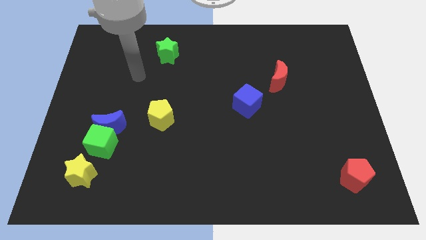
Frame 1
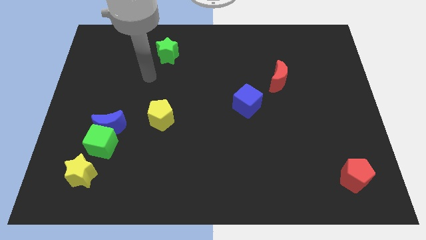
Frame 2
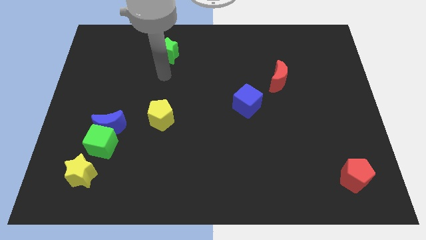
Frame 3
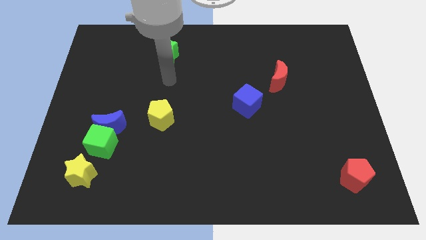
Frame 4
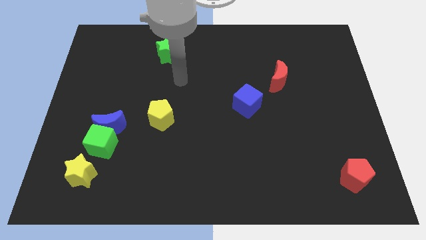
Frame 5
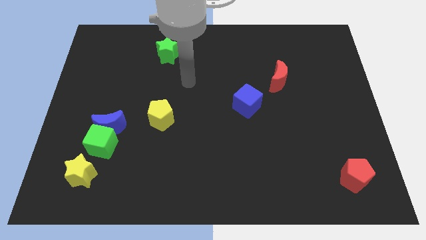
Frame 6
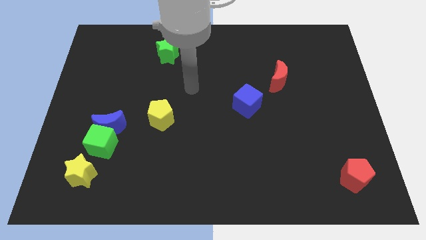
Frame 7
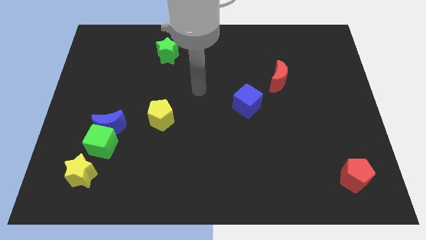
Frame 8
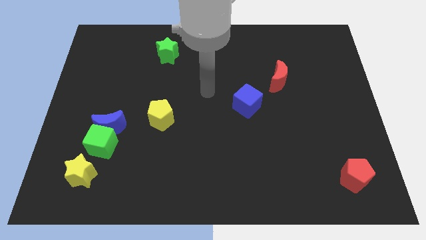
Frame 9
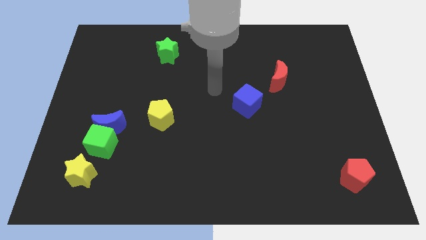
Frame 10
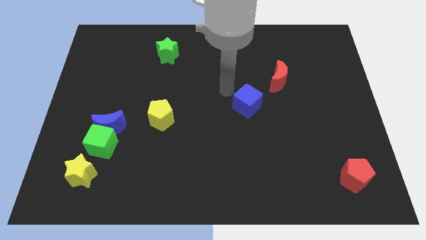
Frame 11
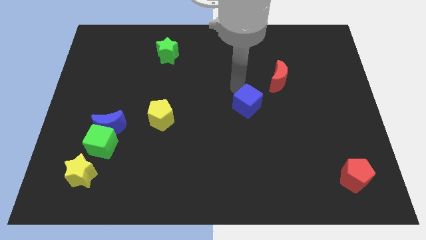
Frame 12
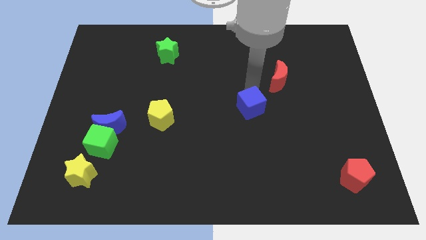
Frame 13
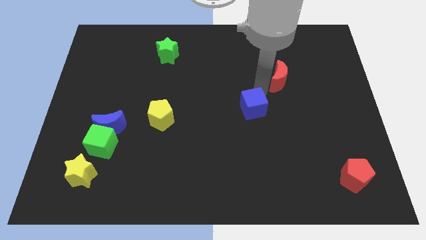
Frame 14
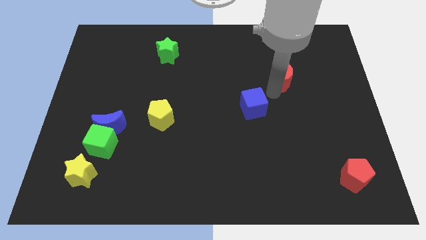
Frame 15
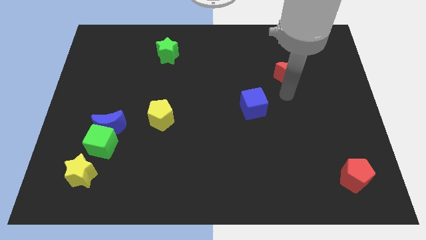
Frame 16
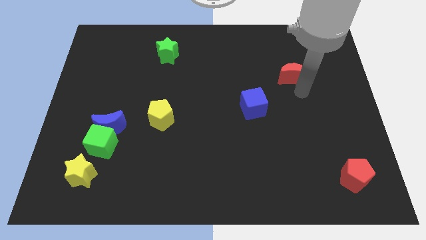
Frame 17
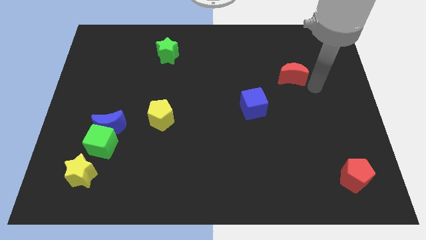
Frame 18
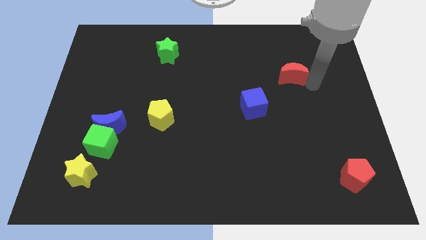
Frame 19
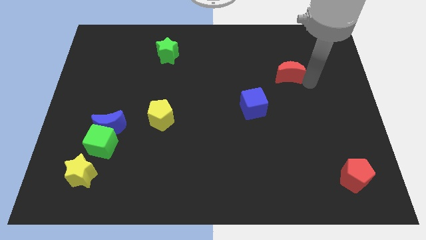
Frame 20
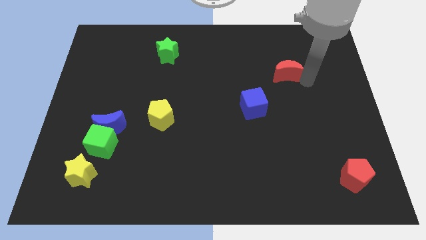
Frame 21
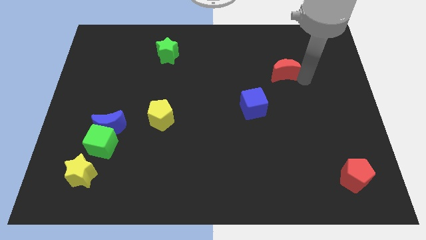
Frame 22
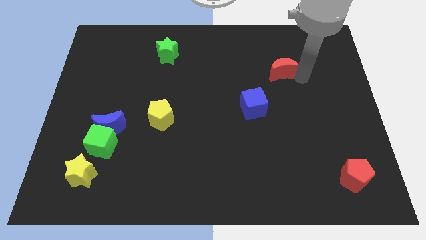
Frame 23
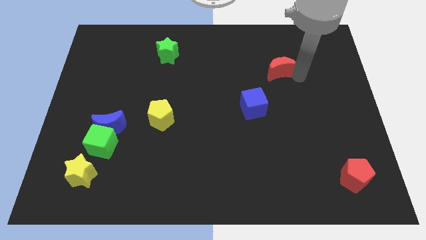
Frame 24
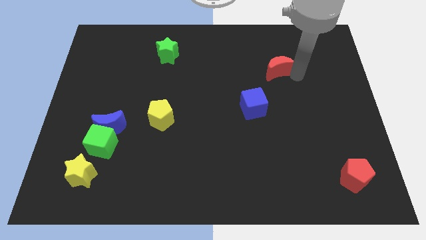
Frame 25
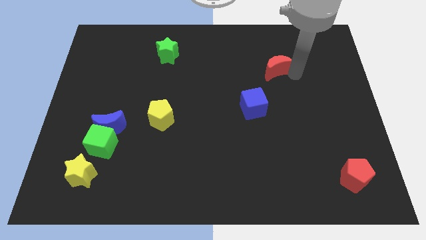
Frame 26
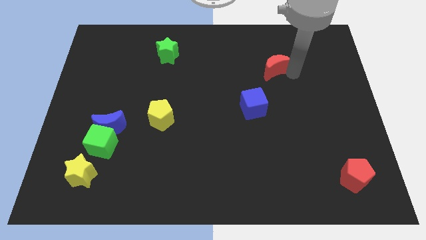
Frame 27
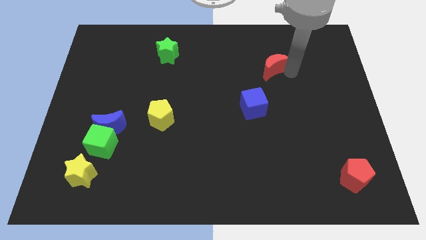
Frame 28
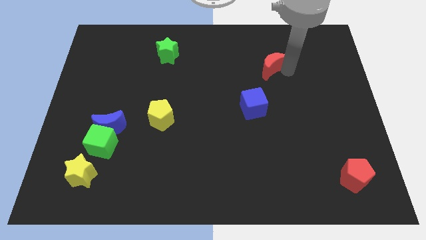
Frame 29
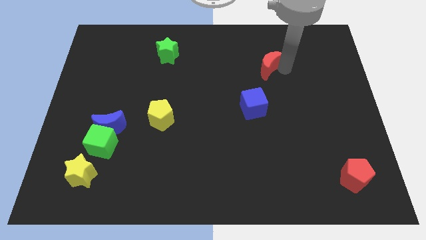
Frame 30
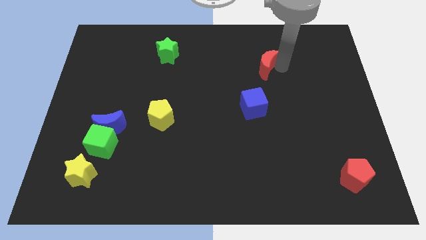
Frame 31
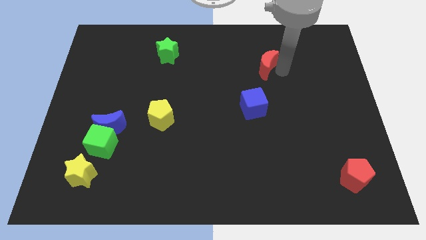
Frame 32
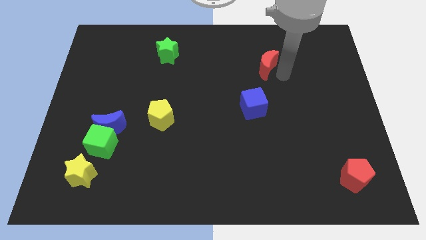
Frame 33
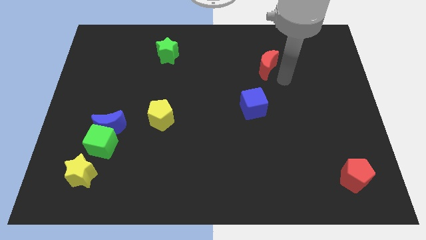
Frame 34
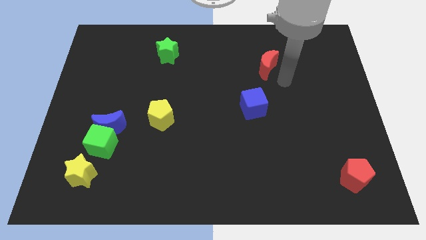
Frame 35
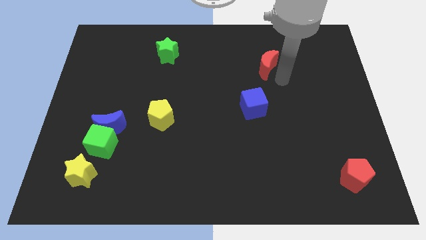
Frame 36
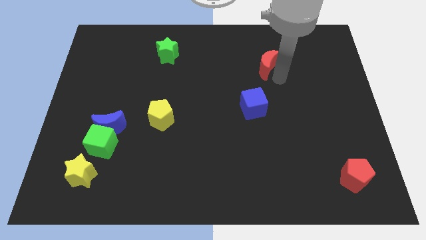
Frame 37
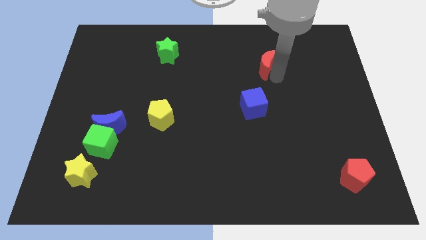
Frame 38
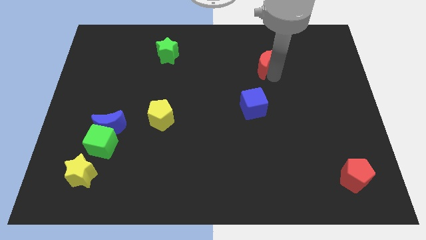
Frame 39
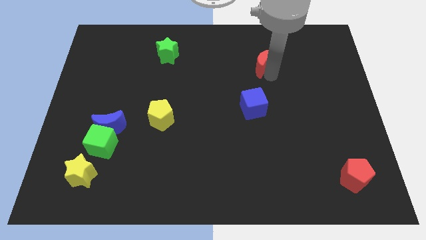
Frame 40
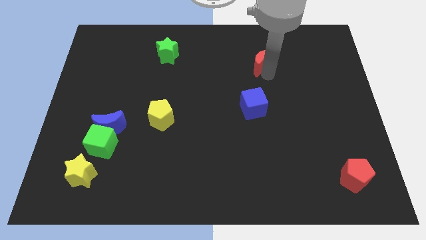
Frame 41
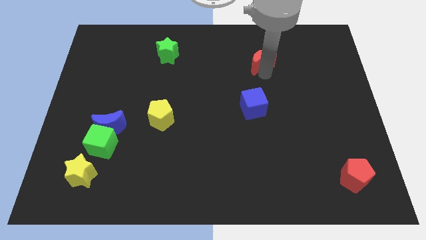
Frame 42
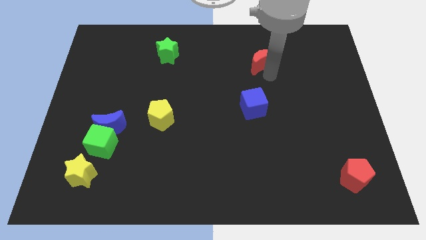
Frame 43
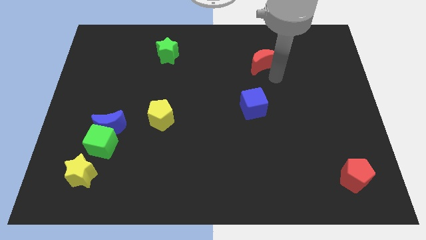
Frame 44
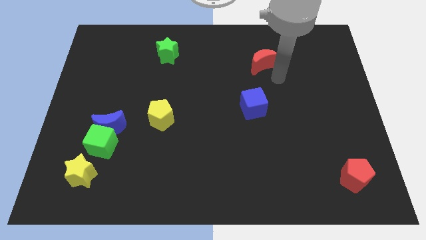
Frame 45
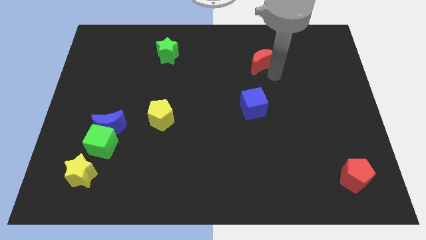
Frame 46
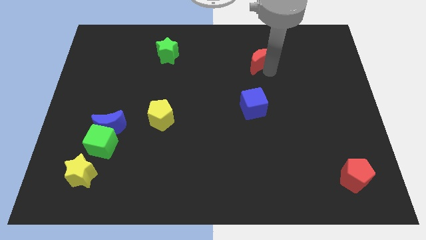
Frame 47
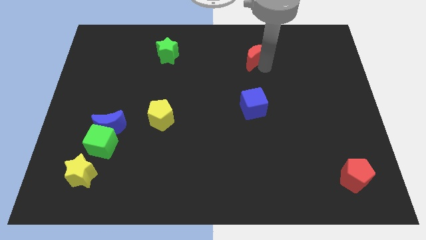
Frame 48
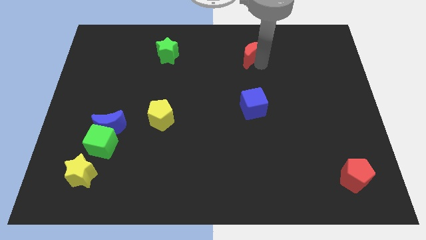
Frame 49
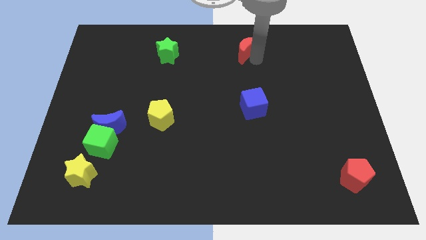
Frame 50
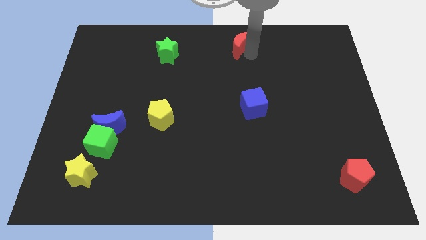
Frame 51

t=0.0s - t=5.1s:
move the red moon to the top

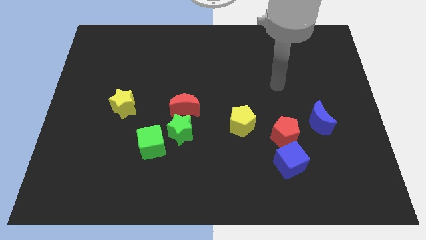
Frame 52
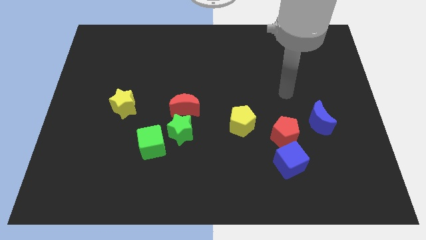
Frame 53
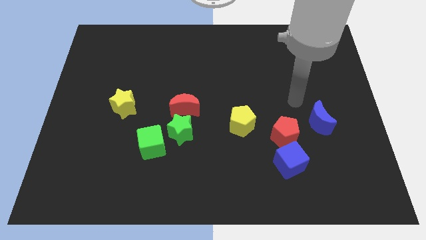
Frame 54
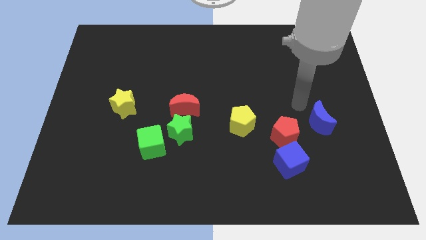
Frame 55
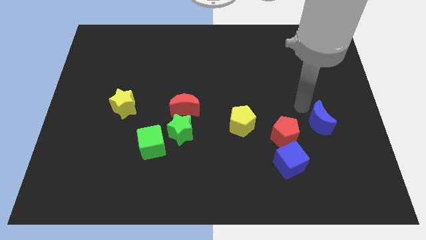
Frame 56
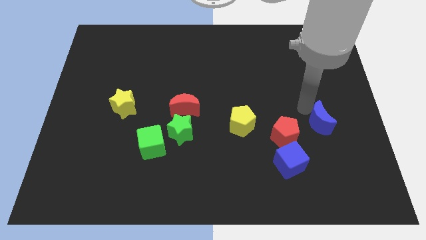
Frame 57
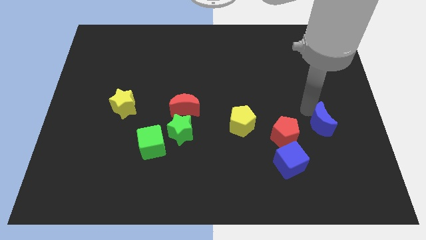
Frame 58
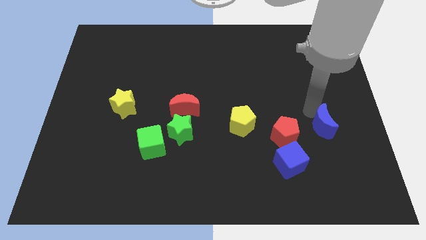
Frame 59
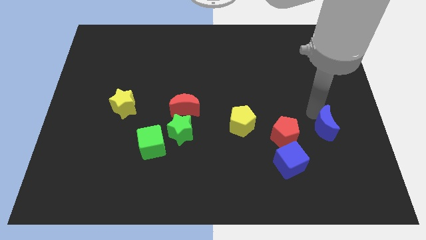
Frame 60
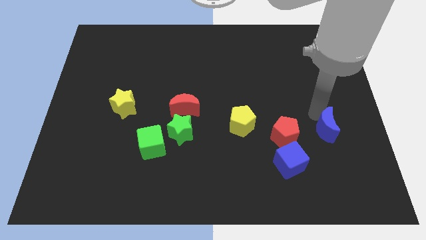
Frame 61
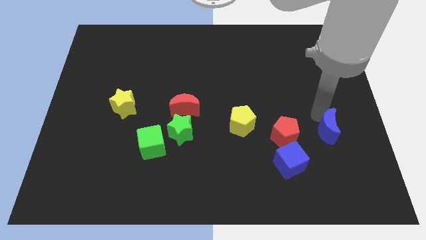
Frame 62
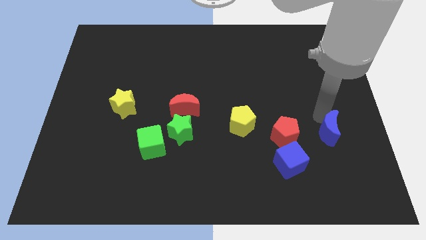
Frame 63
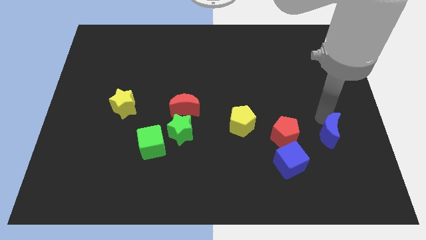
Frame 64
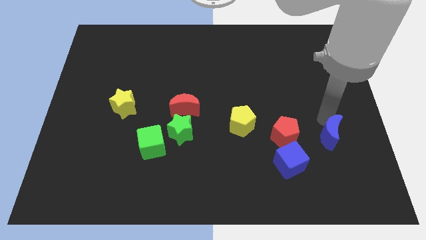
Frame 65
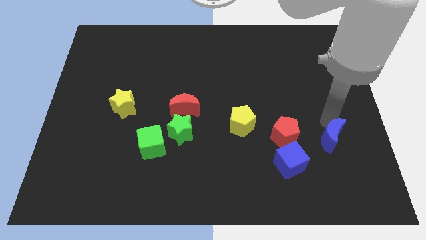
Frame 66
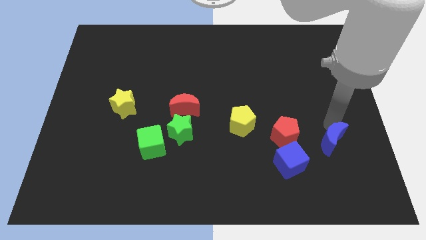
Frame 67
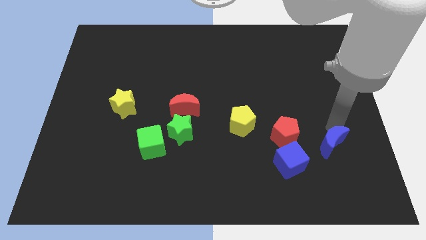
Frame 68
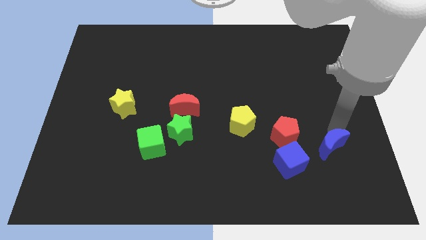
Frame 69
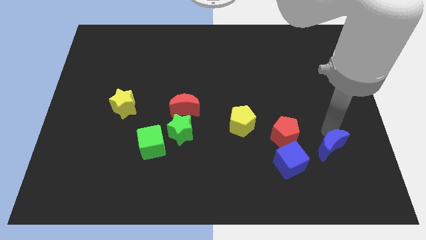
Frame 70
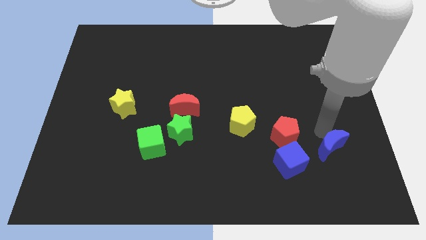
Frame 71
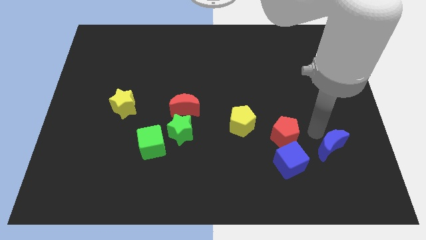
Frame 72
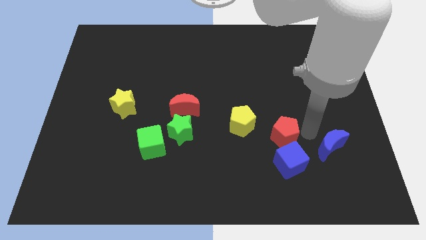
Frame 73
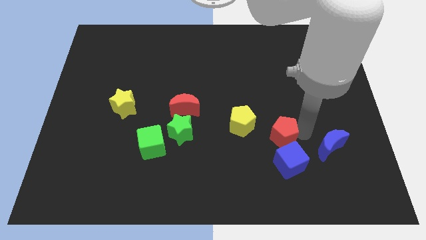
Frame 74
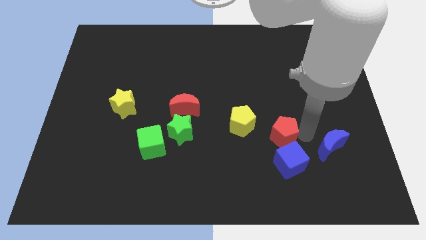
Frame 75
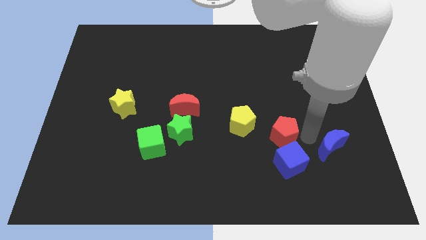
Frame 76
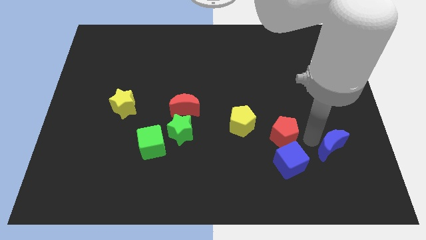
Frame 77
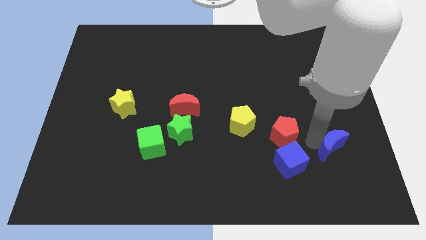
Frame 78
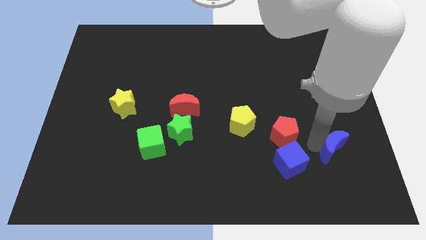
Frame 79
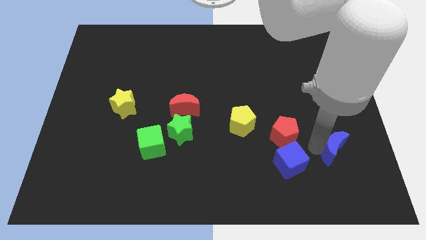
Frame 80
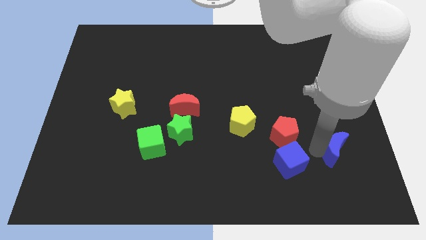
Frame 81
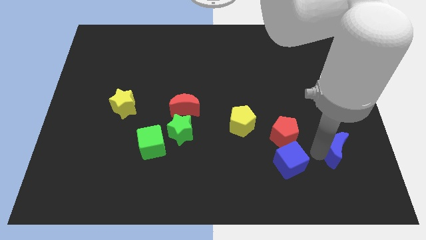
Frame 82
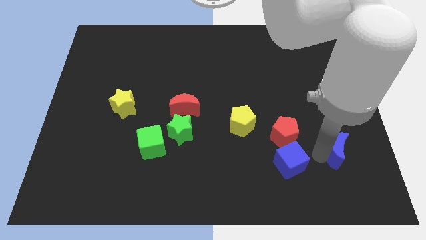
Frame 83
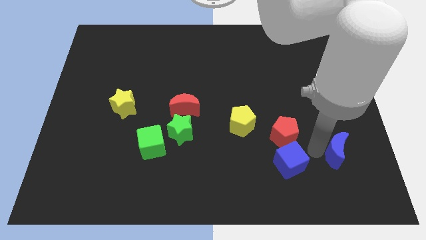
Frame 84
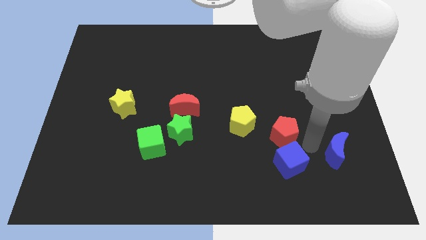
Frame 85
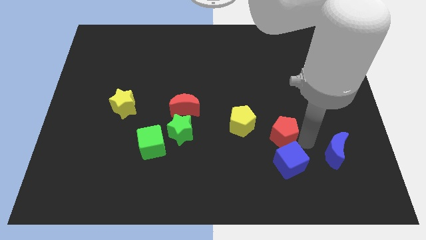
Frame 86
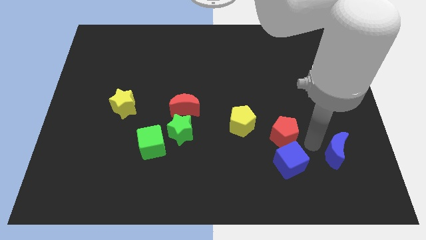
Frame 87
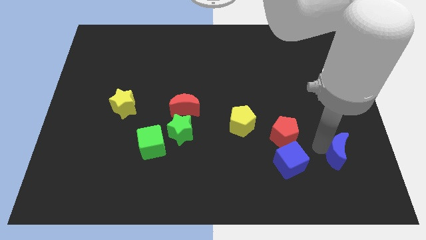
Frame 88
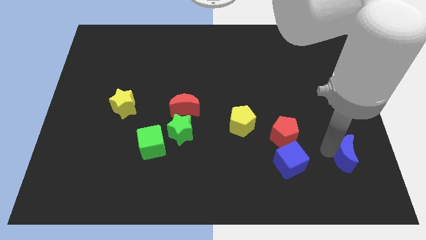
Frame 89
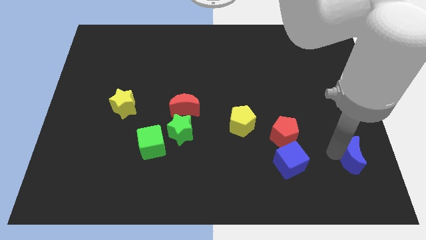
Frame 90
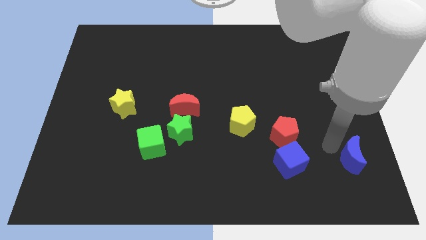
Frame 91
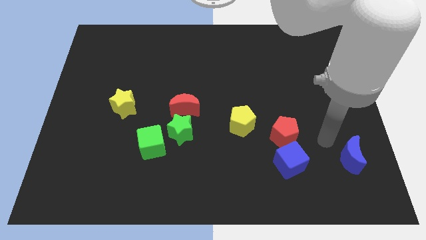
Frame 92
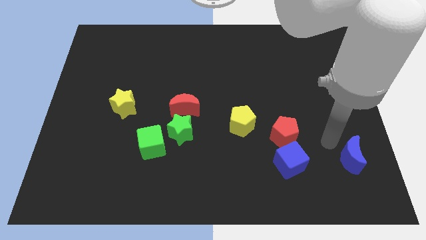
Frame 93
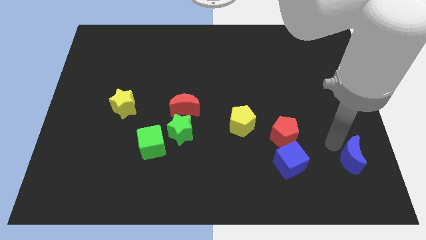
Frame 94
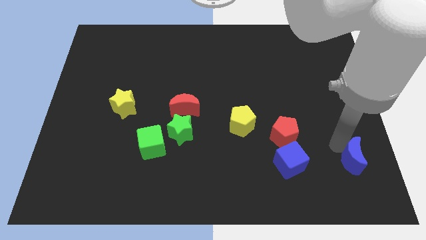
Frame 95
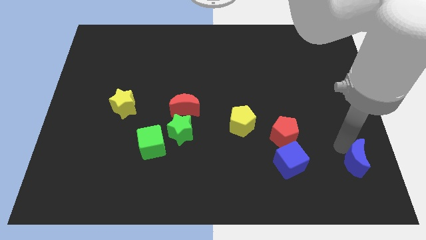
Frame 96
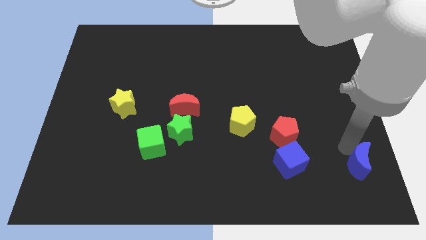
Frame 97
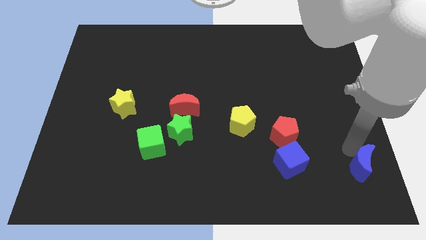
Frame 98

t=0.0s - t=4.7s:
put the blue moon to the lower right corner
